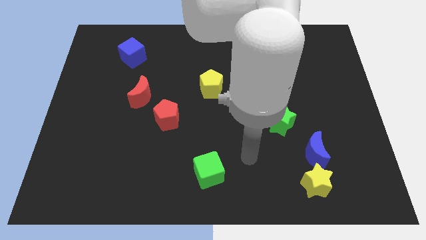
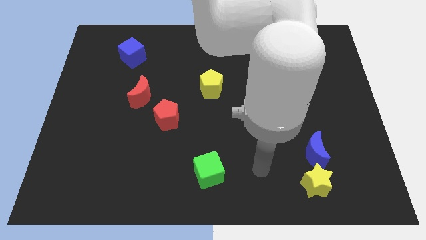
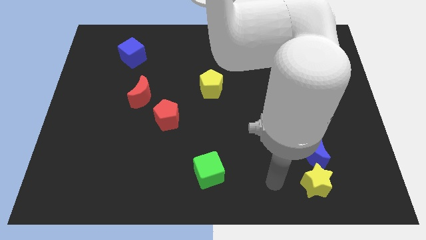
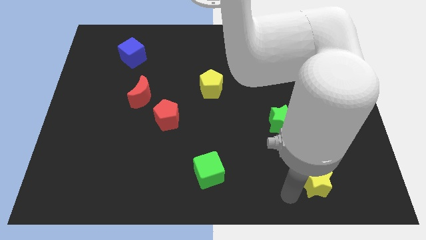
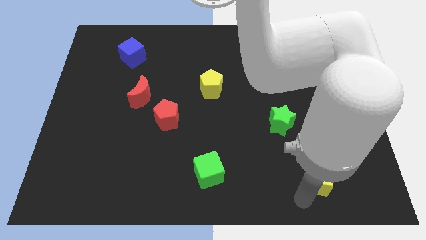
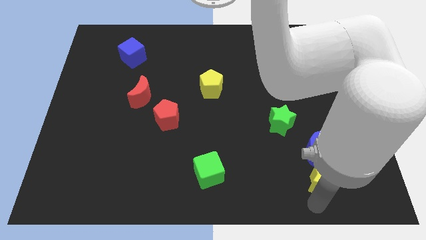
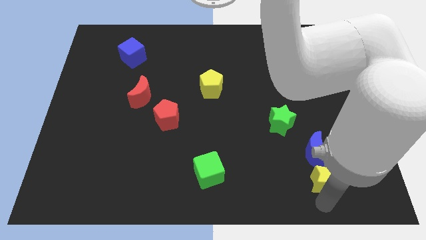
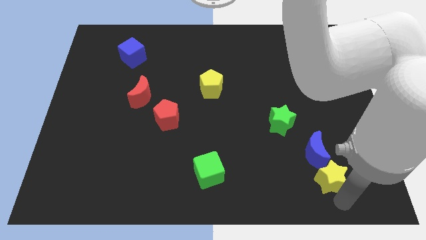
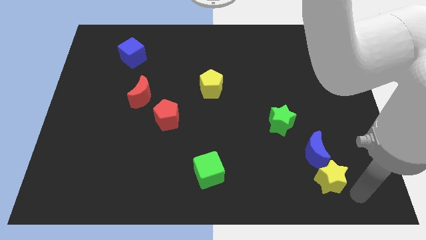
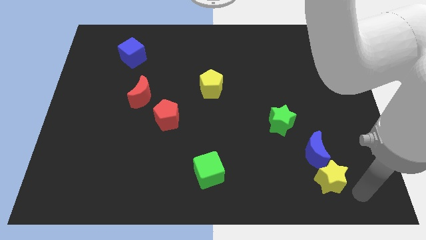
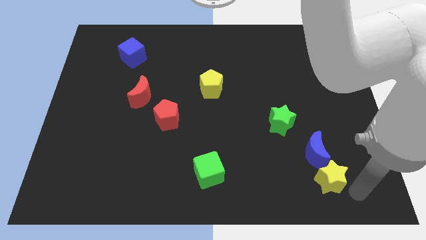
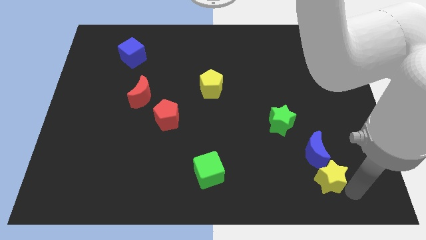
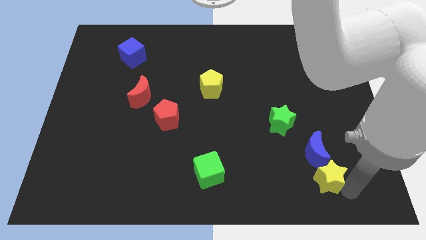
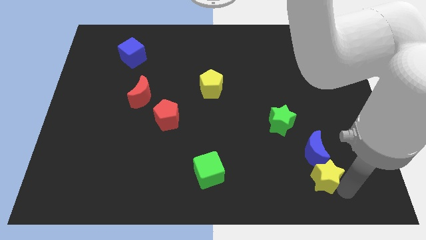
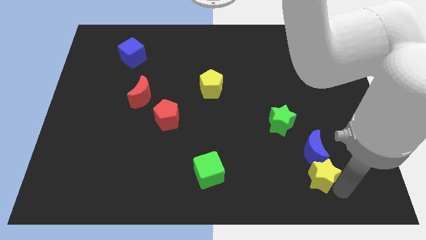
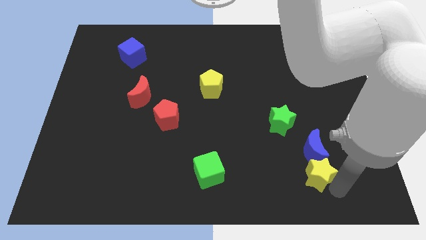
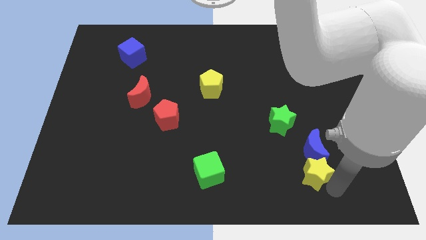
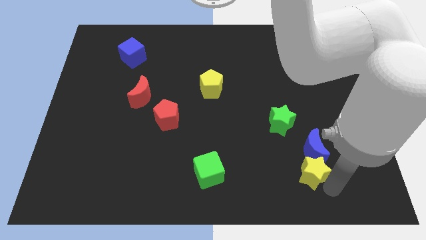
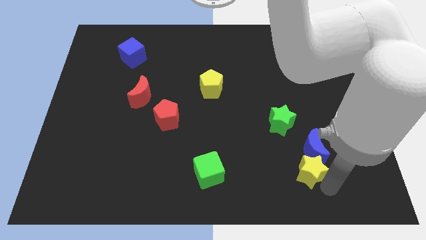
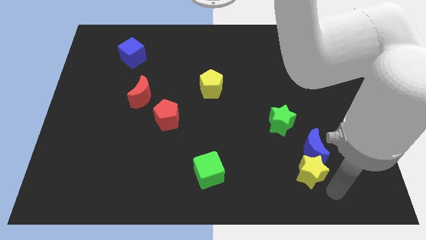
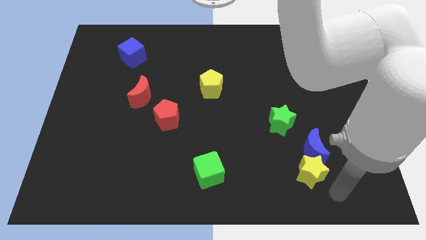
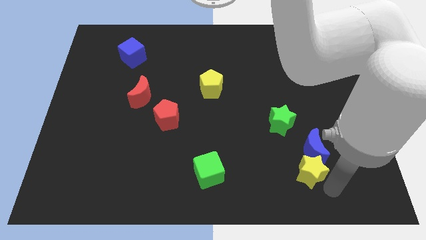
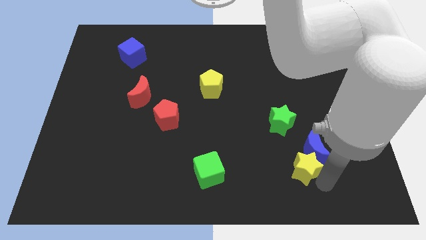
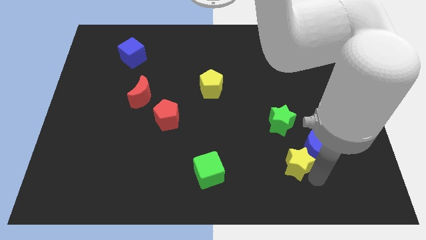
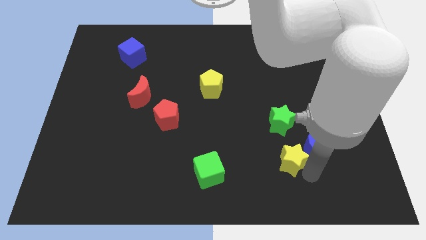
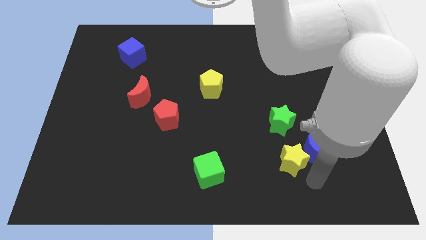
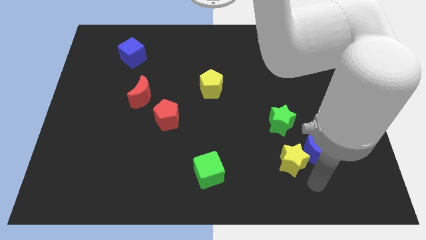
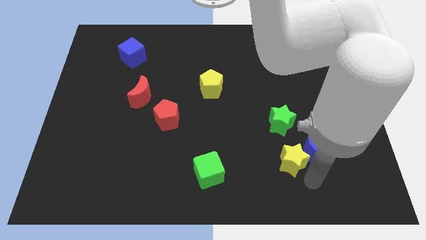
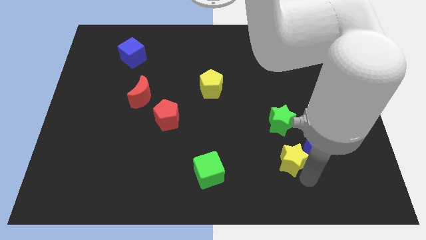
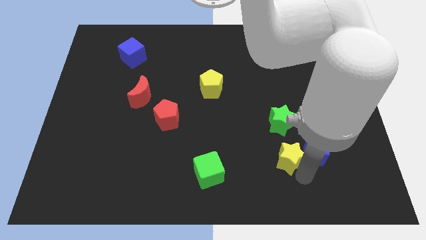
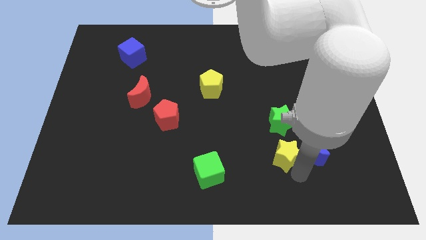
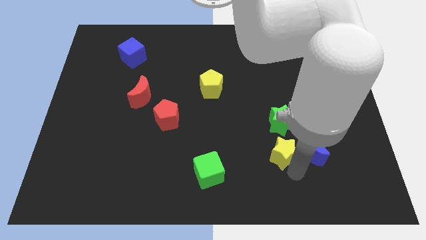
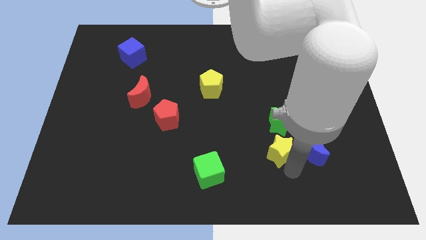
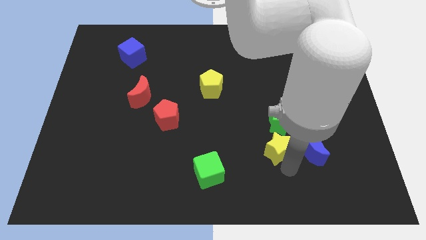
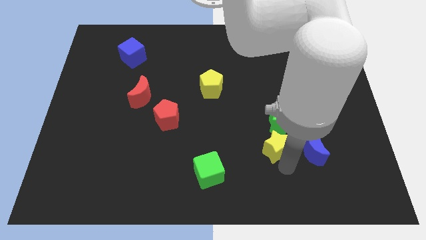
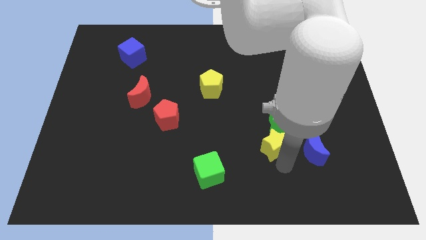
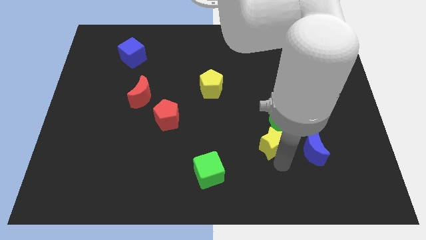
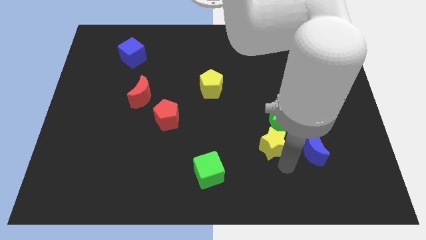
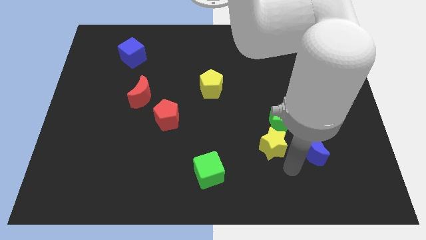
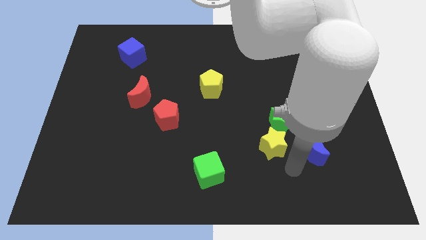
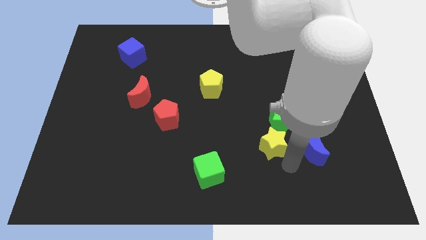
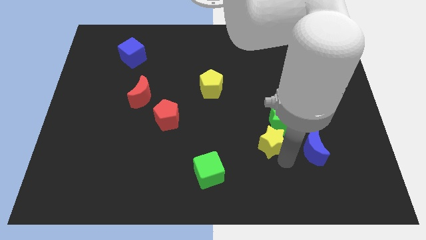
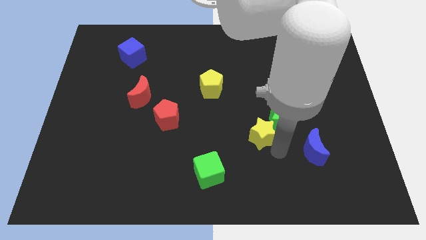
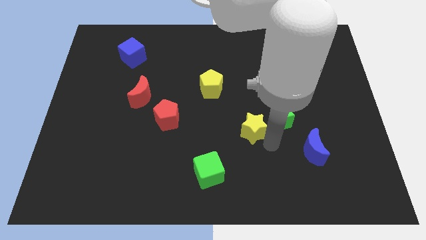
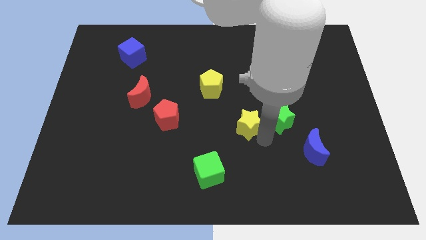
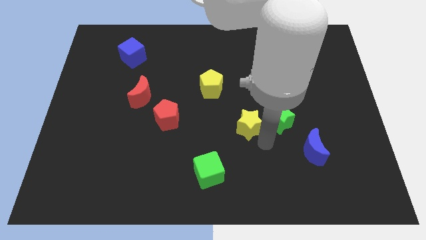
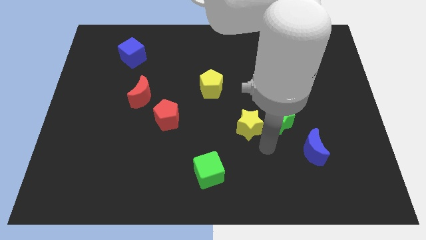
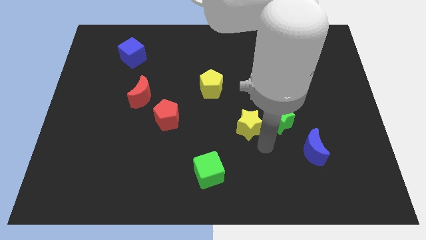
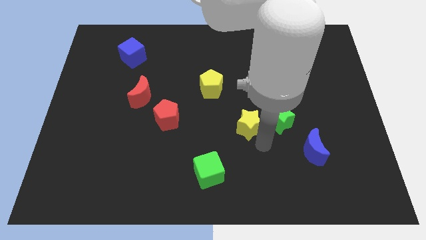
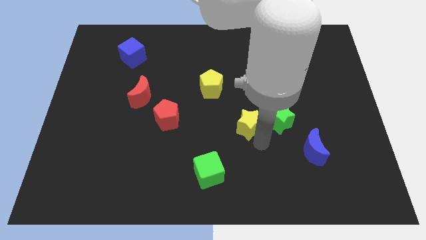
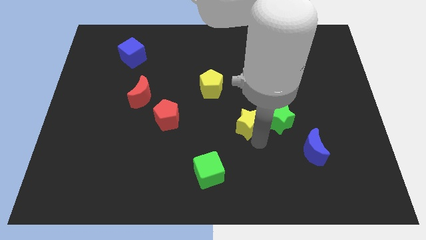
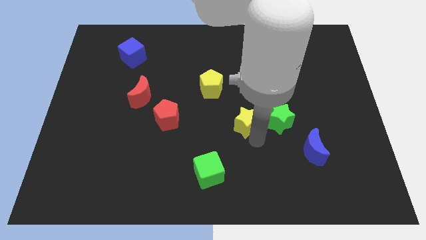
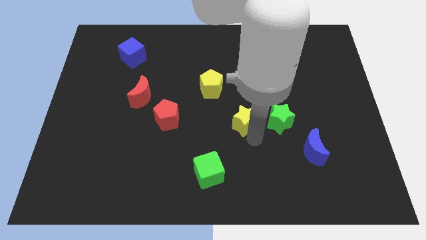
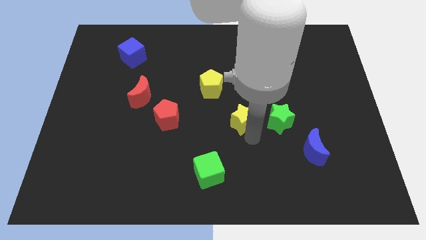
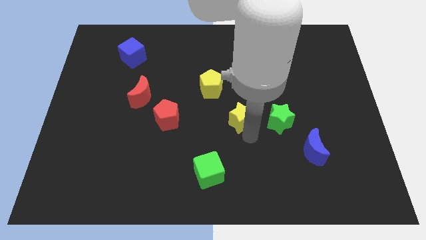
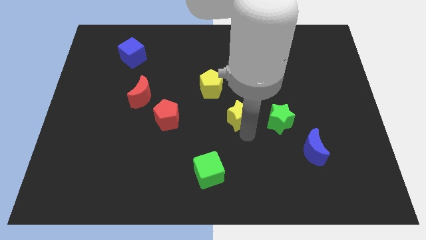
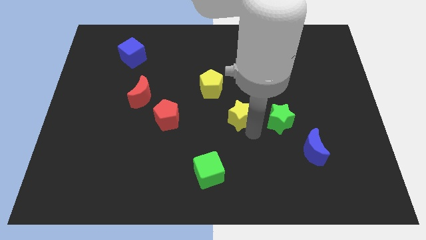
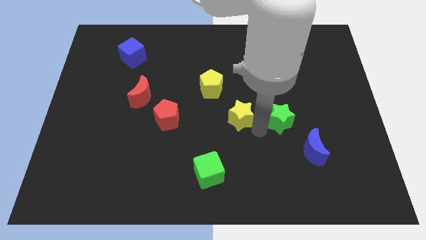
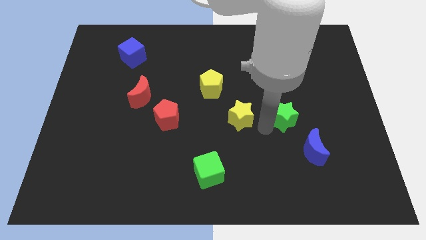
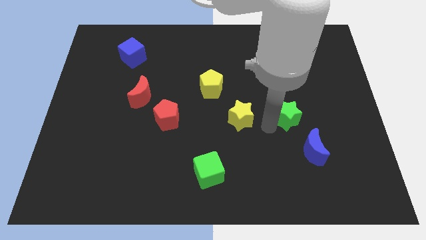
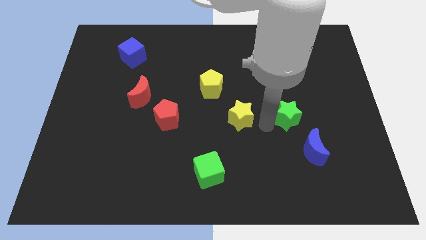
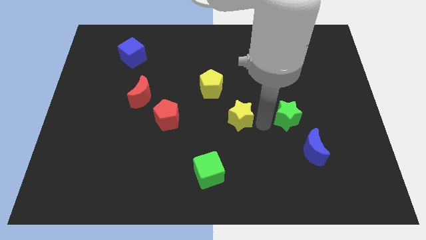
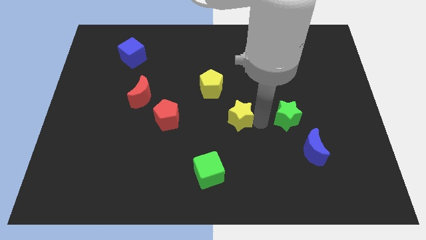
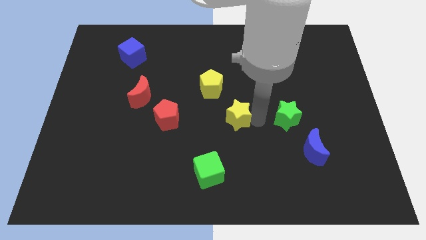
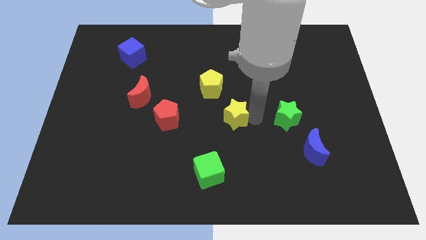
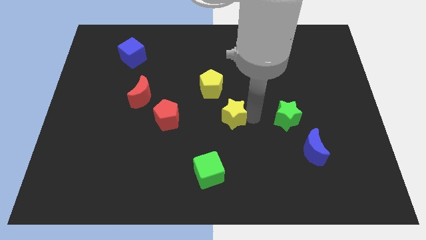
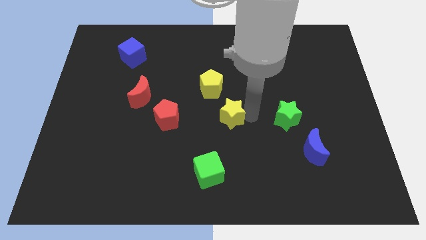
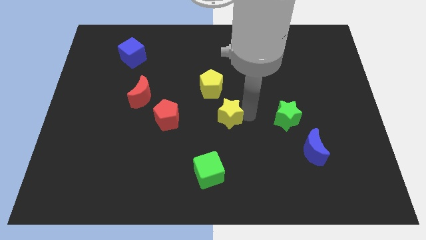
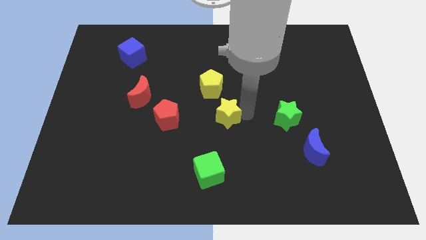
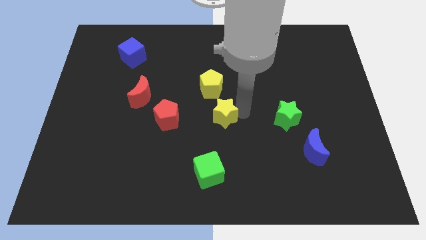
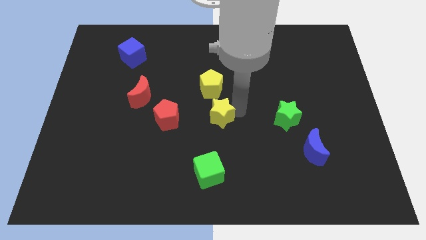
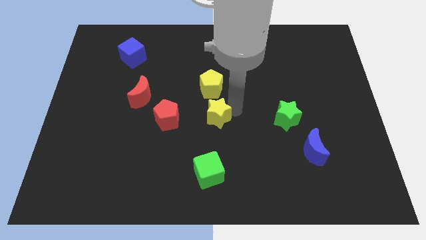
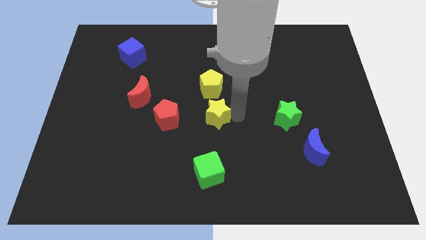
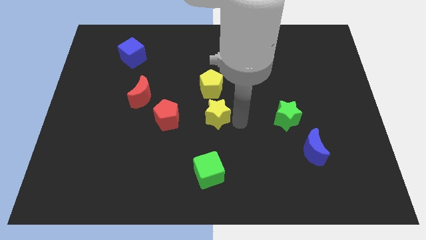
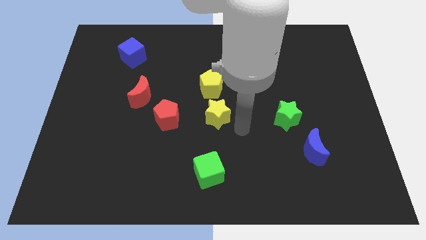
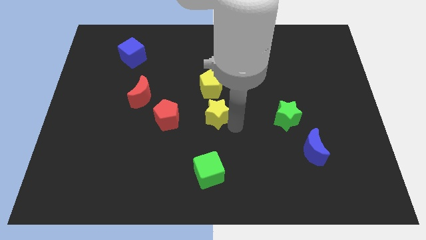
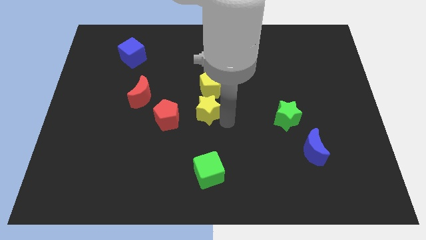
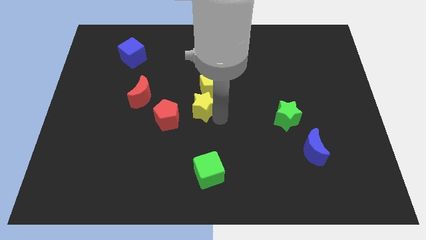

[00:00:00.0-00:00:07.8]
push the yellow star to the top right of the red pentagon
